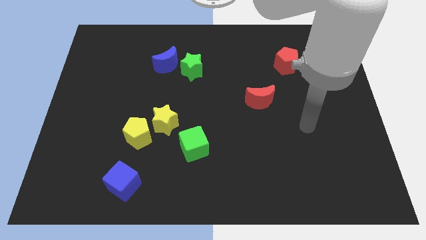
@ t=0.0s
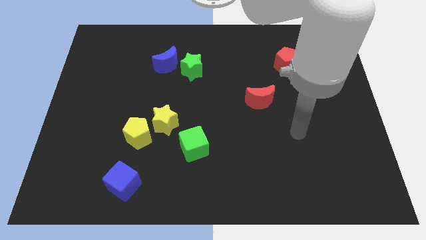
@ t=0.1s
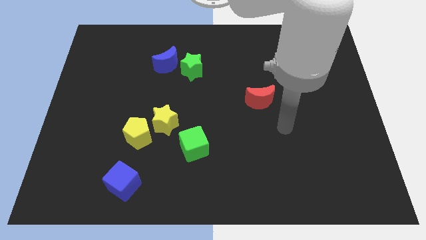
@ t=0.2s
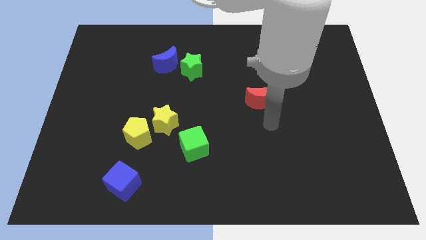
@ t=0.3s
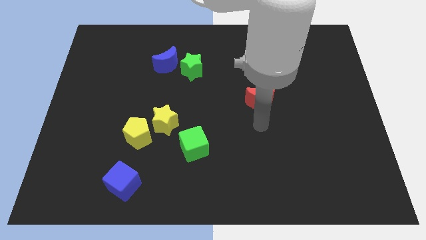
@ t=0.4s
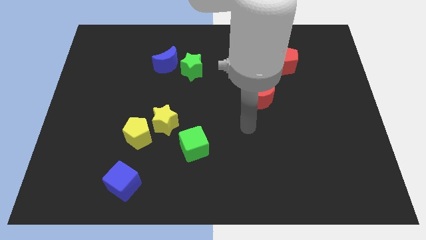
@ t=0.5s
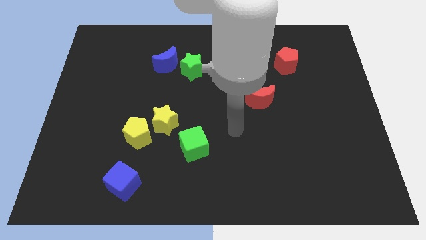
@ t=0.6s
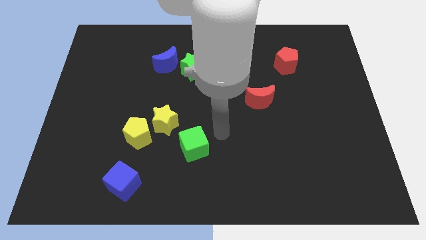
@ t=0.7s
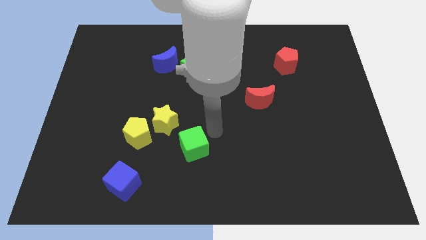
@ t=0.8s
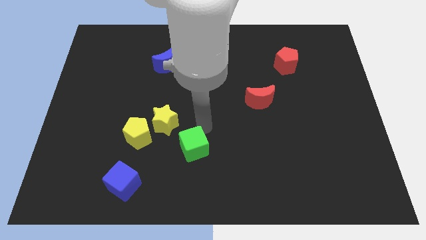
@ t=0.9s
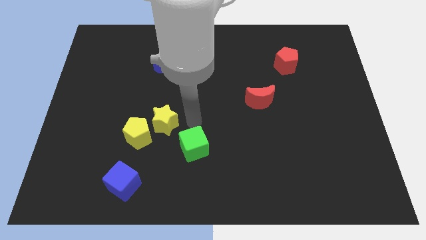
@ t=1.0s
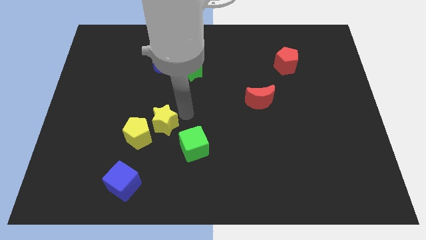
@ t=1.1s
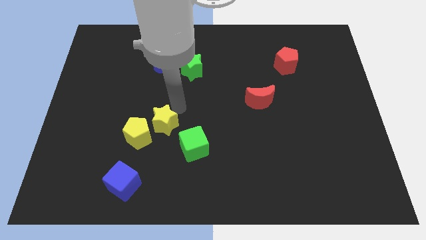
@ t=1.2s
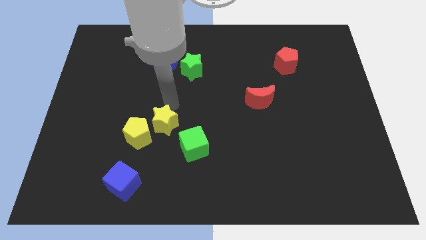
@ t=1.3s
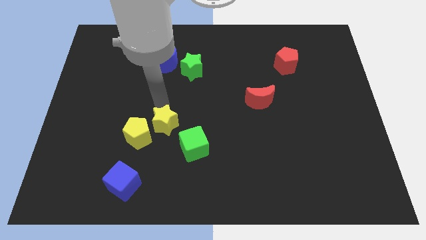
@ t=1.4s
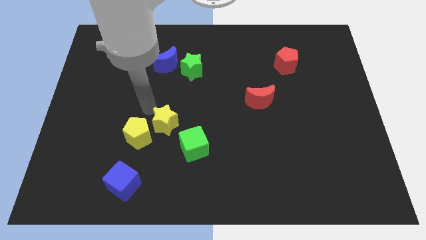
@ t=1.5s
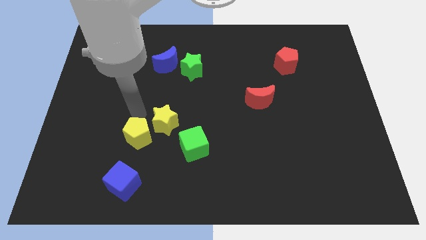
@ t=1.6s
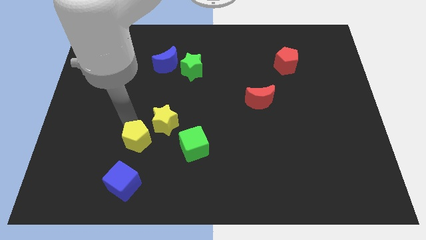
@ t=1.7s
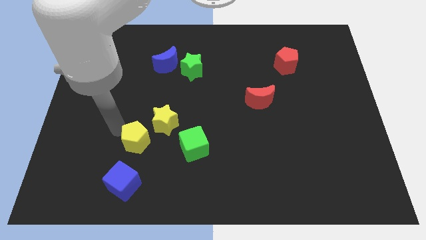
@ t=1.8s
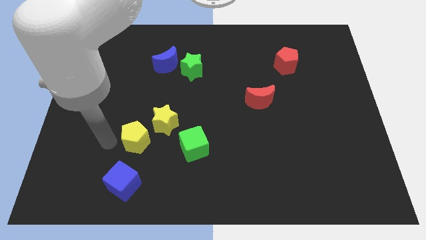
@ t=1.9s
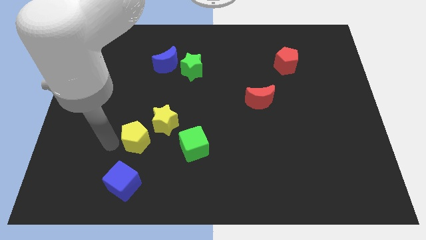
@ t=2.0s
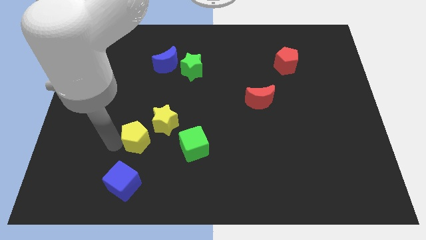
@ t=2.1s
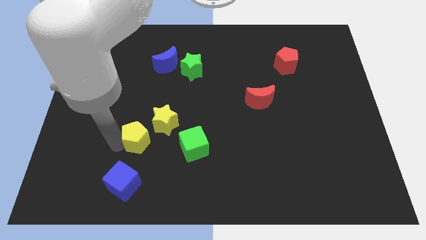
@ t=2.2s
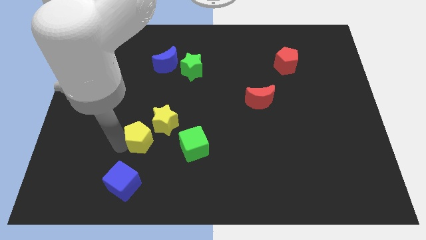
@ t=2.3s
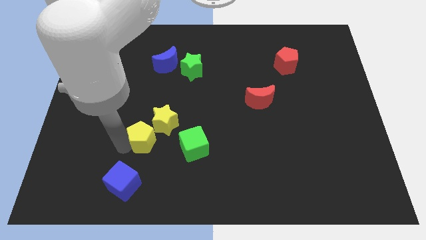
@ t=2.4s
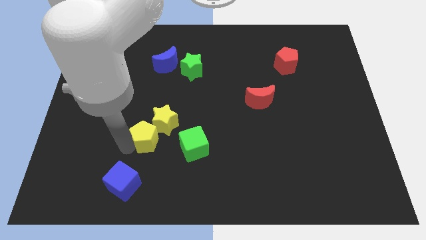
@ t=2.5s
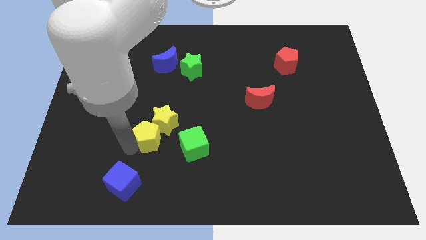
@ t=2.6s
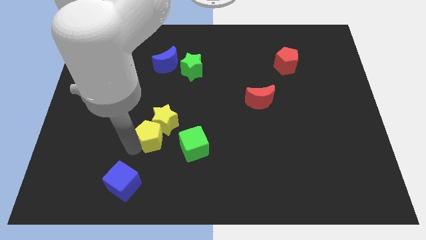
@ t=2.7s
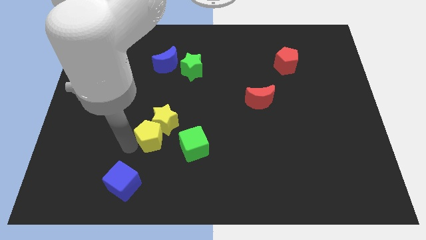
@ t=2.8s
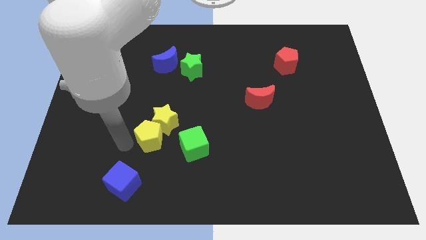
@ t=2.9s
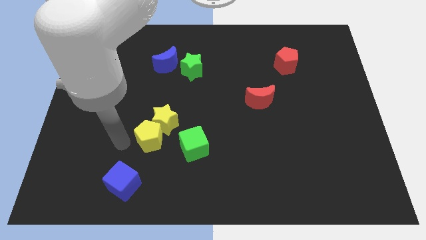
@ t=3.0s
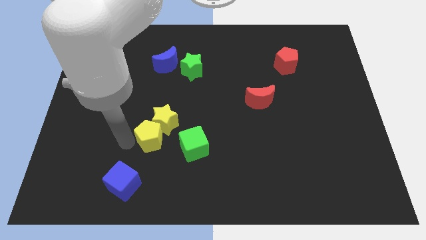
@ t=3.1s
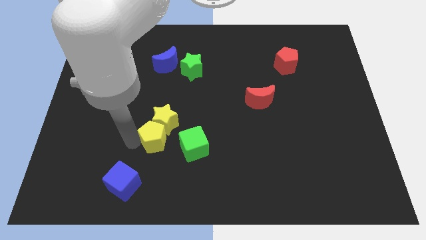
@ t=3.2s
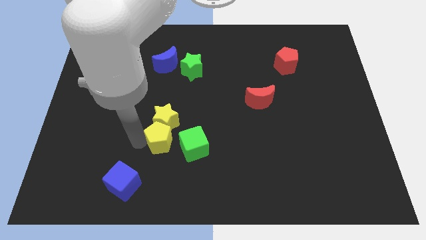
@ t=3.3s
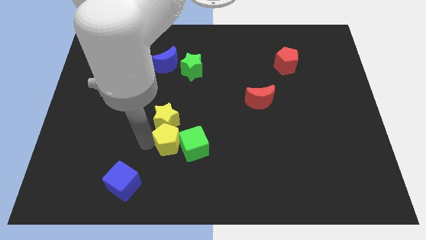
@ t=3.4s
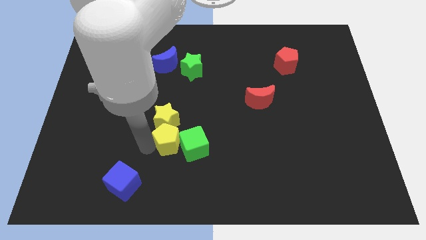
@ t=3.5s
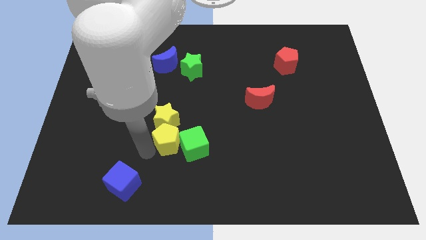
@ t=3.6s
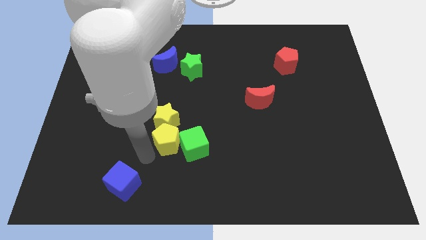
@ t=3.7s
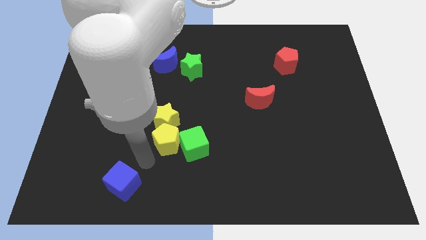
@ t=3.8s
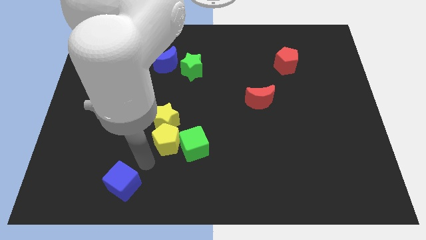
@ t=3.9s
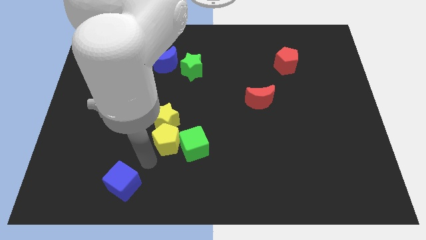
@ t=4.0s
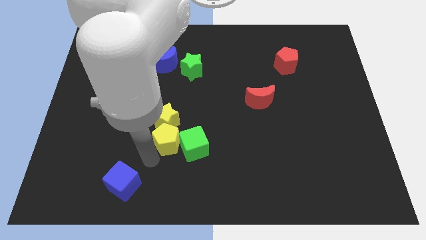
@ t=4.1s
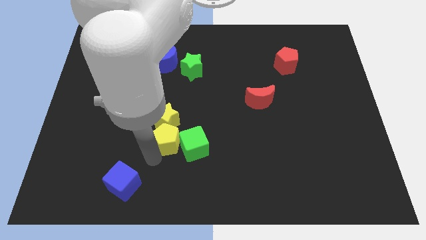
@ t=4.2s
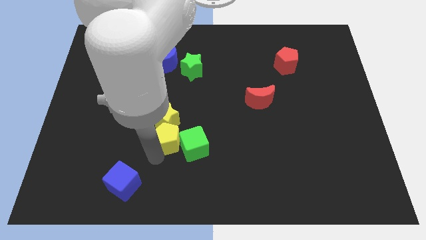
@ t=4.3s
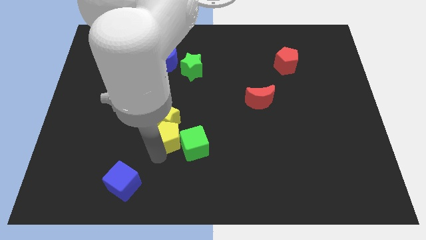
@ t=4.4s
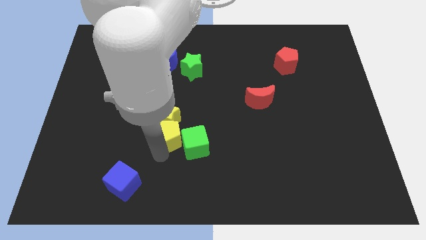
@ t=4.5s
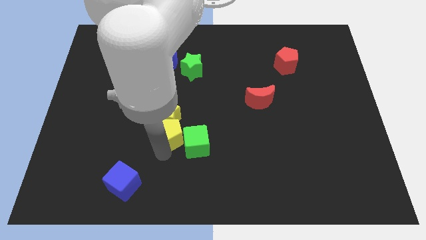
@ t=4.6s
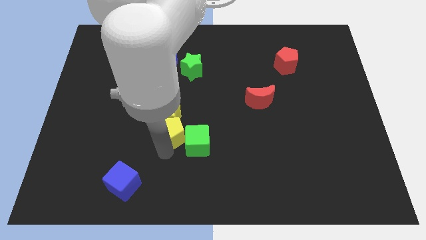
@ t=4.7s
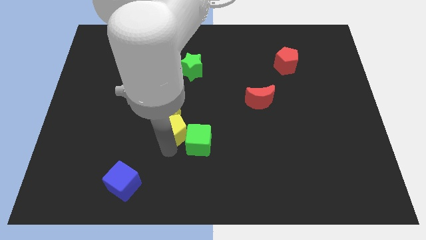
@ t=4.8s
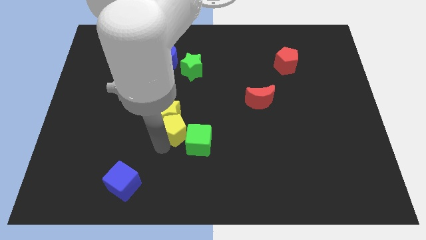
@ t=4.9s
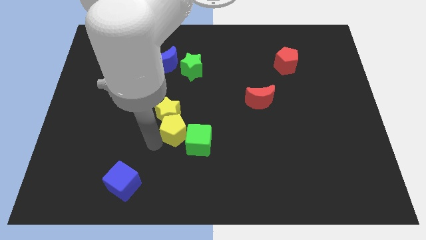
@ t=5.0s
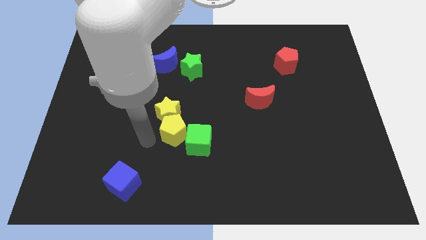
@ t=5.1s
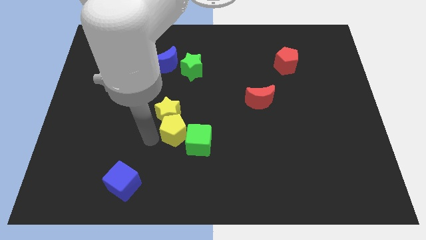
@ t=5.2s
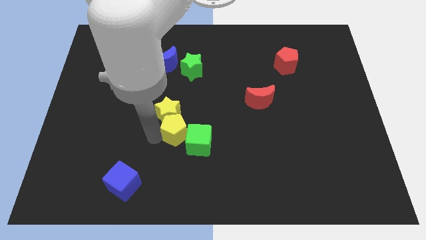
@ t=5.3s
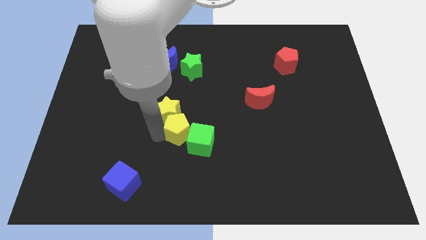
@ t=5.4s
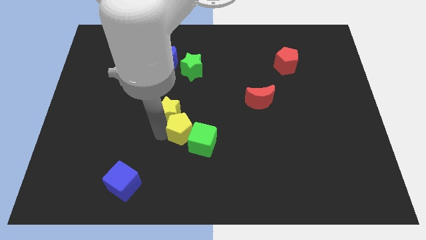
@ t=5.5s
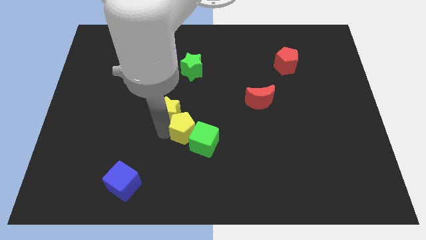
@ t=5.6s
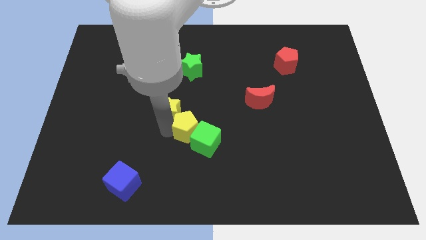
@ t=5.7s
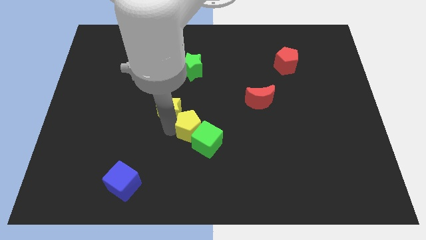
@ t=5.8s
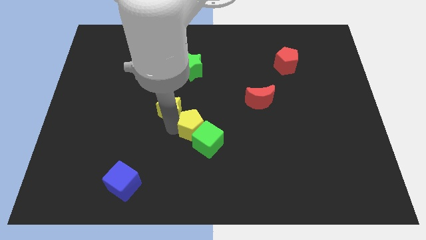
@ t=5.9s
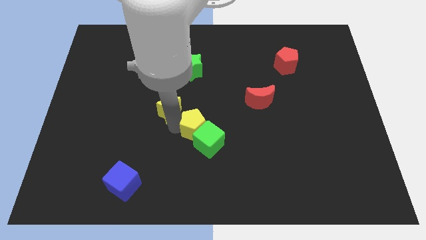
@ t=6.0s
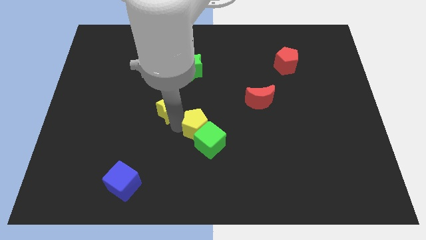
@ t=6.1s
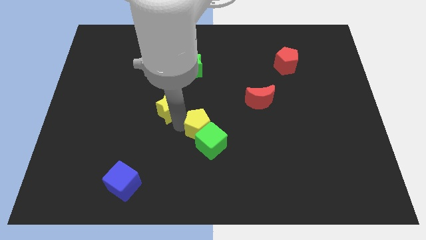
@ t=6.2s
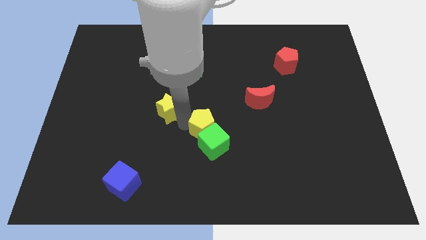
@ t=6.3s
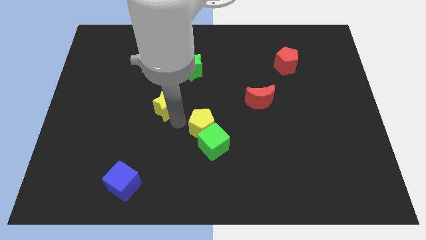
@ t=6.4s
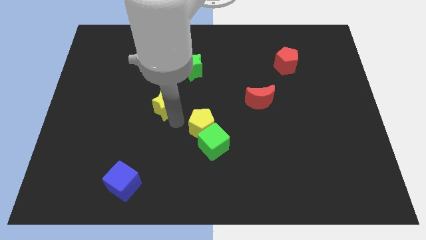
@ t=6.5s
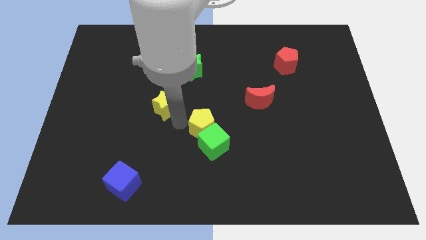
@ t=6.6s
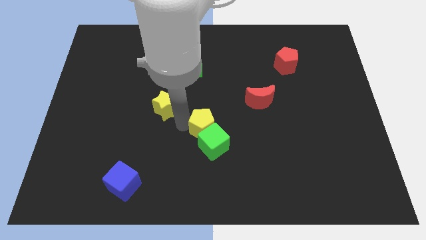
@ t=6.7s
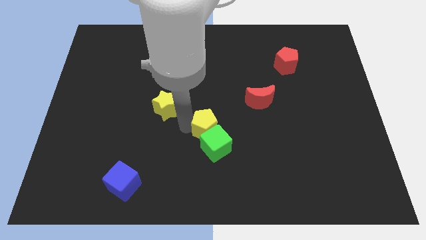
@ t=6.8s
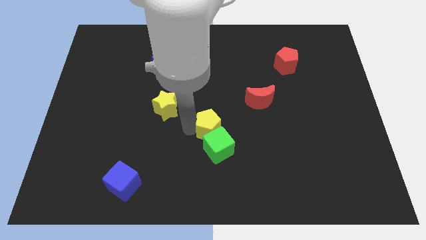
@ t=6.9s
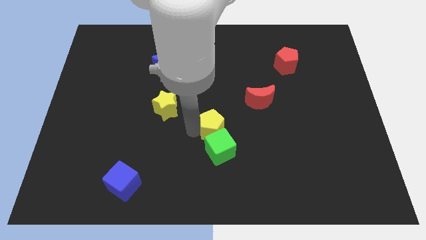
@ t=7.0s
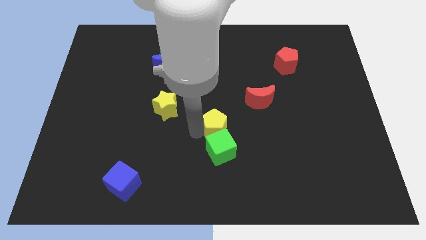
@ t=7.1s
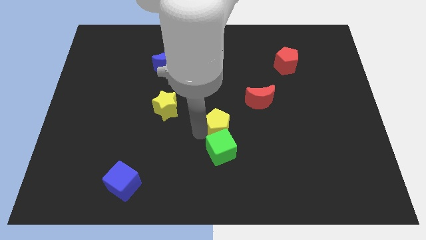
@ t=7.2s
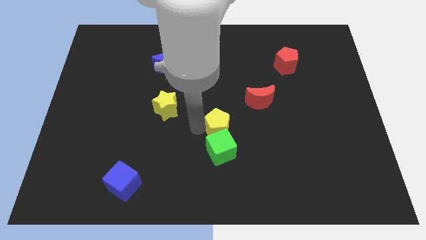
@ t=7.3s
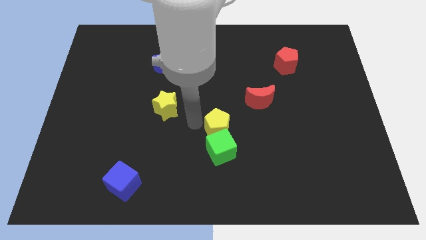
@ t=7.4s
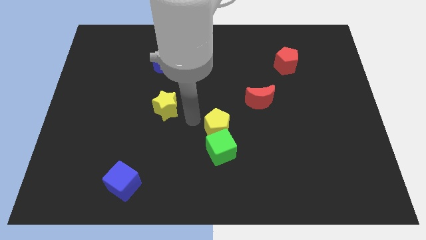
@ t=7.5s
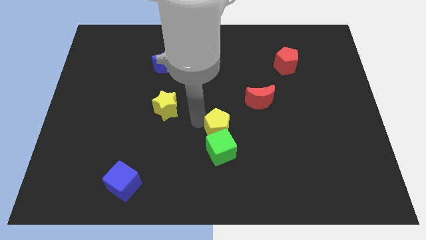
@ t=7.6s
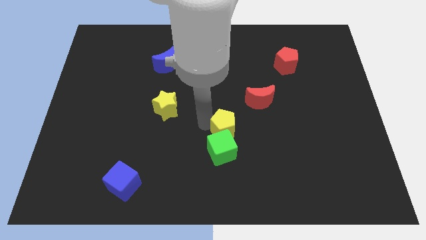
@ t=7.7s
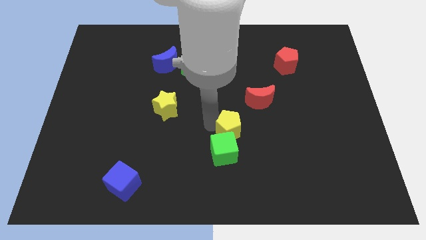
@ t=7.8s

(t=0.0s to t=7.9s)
push the yellow pentagon to the right

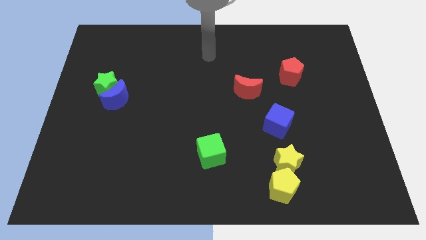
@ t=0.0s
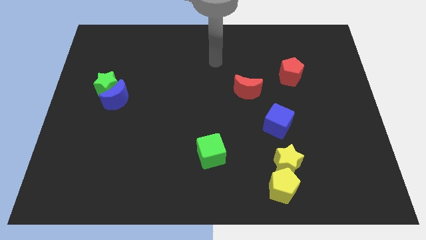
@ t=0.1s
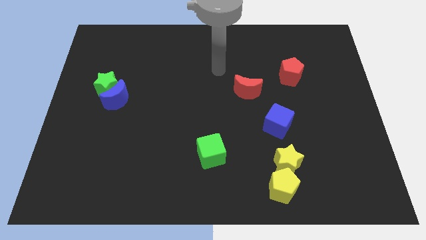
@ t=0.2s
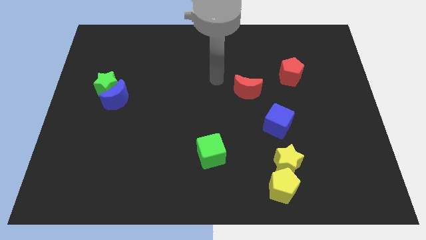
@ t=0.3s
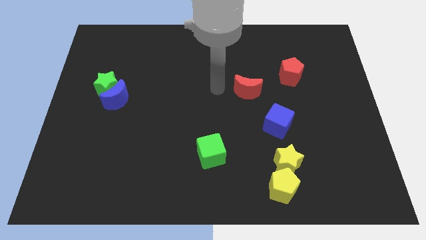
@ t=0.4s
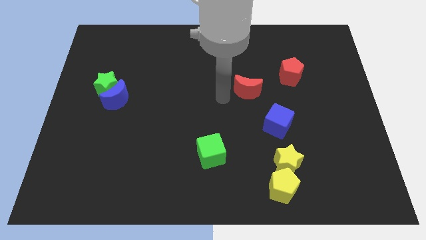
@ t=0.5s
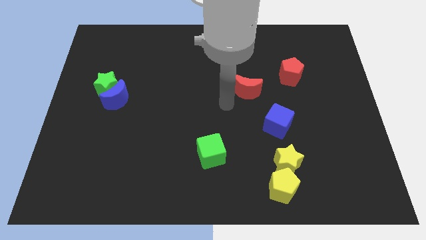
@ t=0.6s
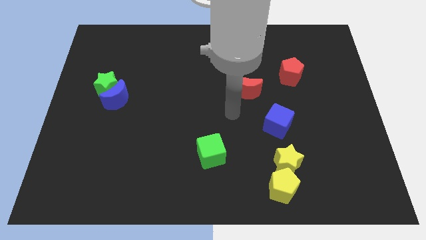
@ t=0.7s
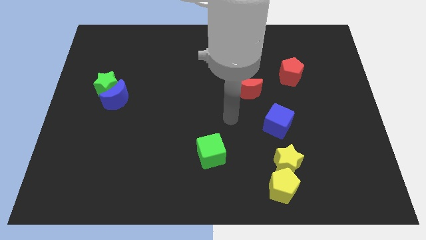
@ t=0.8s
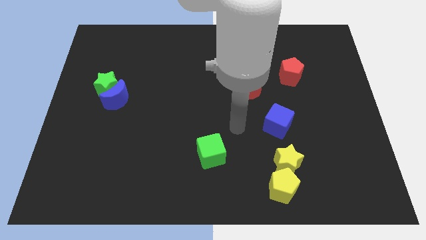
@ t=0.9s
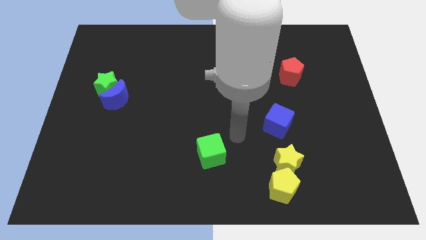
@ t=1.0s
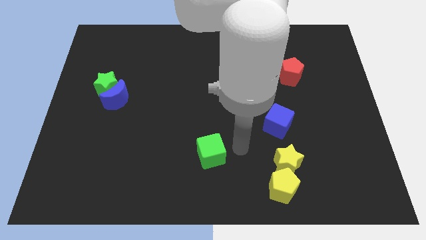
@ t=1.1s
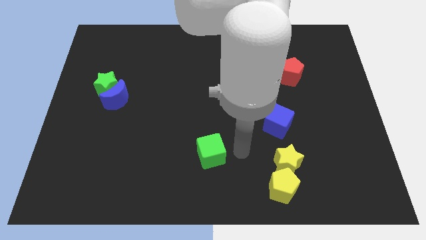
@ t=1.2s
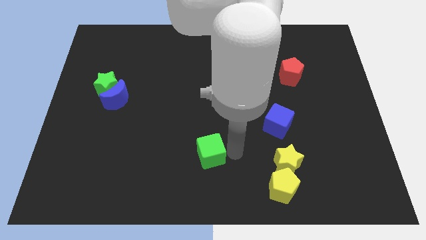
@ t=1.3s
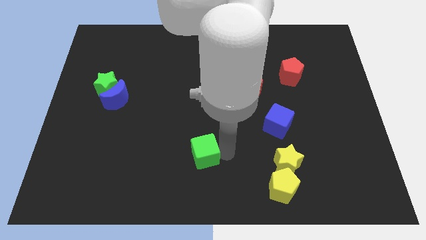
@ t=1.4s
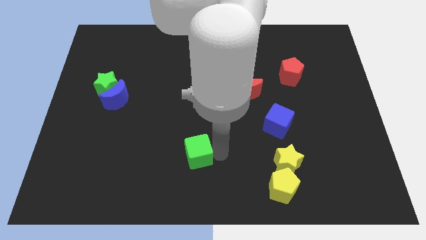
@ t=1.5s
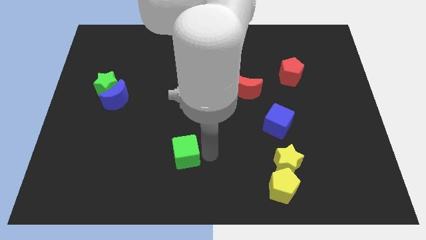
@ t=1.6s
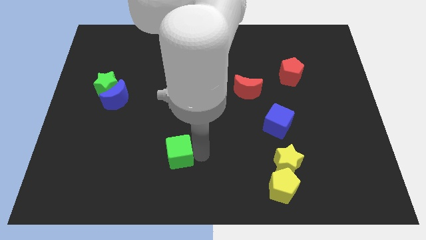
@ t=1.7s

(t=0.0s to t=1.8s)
slightly move the green cube to the left
